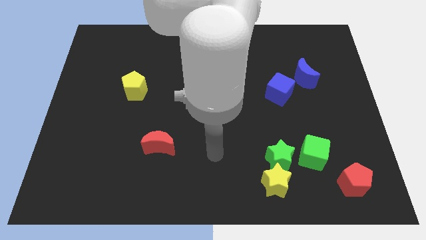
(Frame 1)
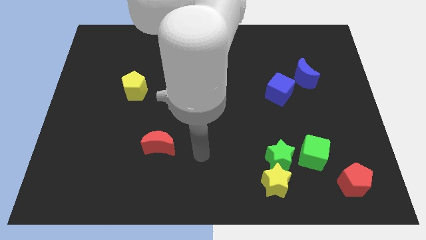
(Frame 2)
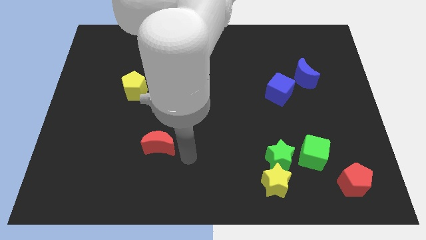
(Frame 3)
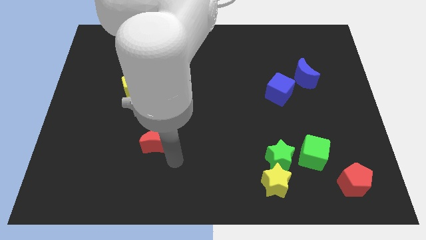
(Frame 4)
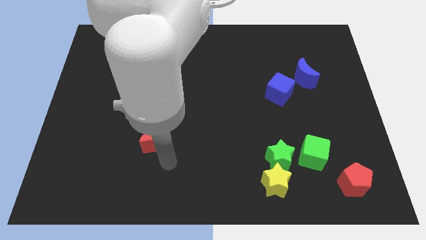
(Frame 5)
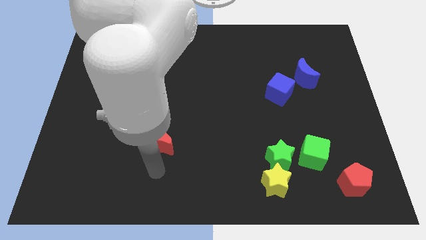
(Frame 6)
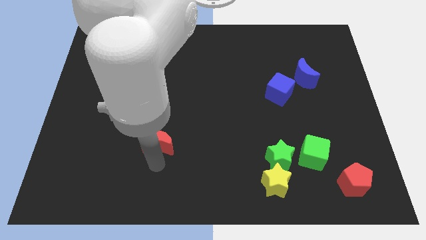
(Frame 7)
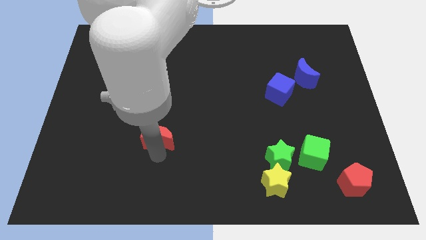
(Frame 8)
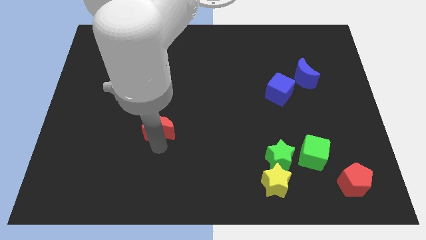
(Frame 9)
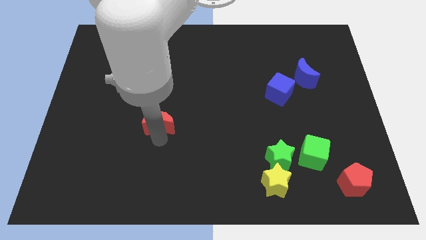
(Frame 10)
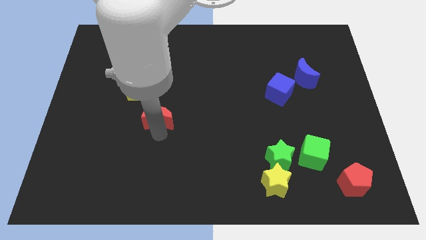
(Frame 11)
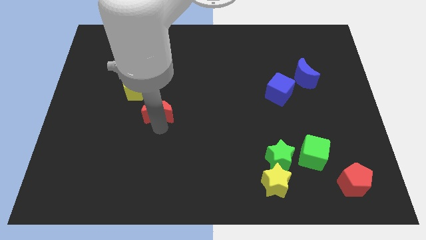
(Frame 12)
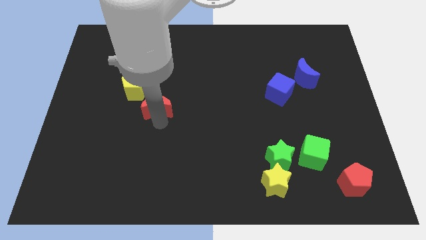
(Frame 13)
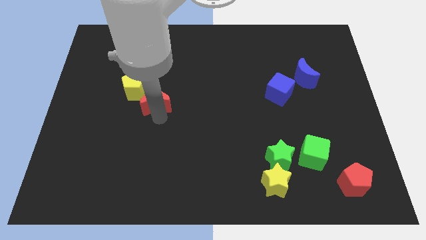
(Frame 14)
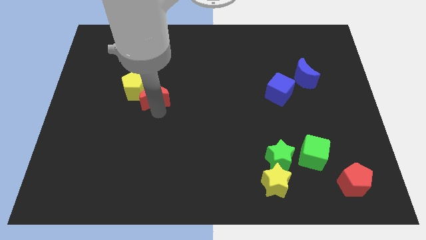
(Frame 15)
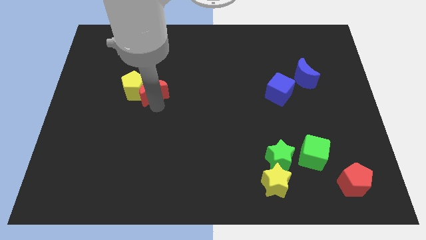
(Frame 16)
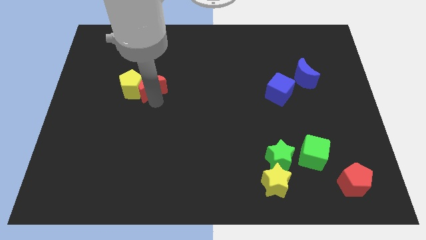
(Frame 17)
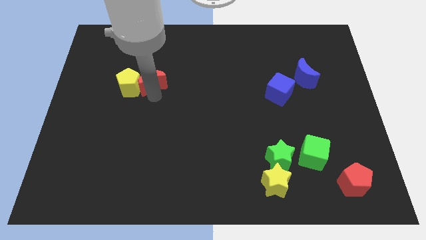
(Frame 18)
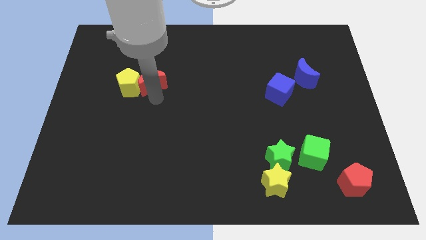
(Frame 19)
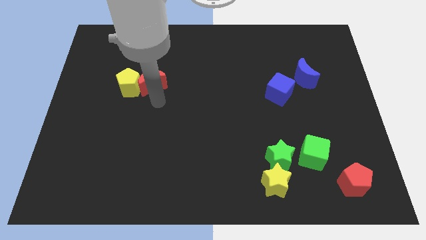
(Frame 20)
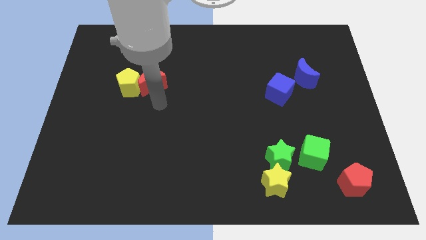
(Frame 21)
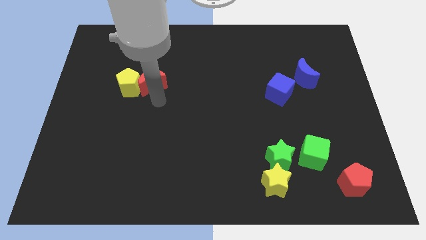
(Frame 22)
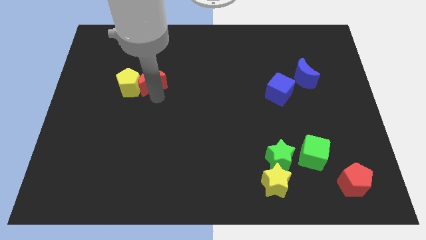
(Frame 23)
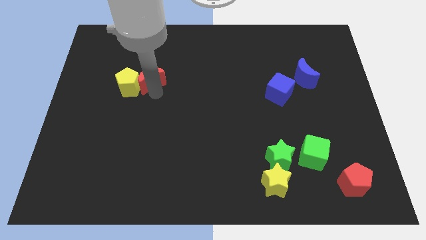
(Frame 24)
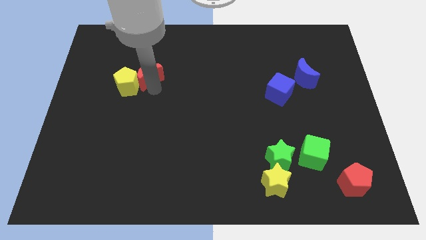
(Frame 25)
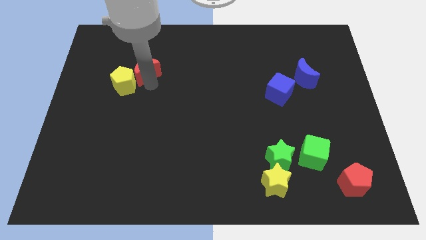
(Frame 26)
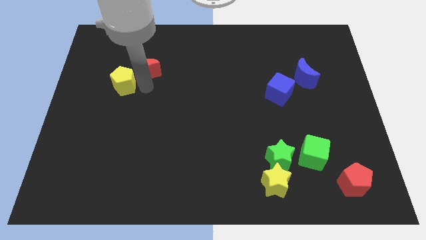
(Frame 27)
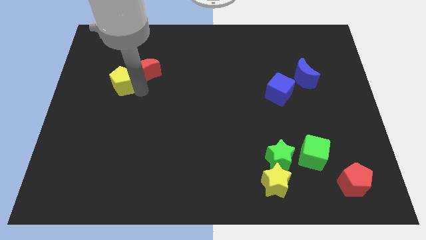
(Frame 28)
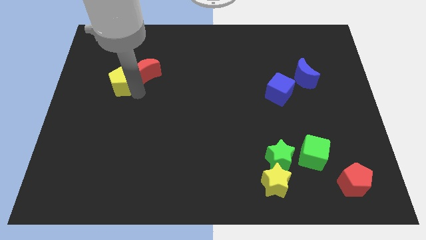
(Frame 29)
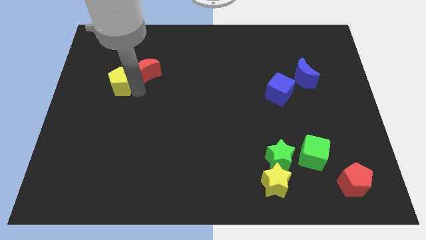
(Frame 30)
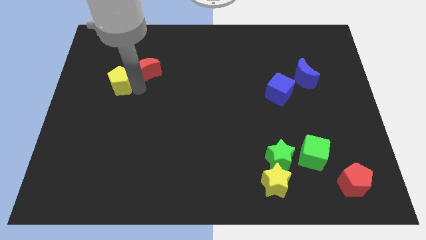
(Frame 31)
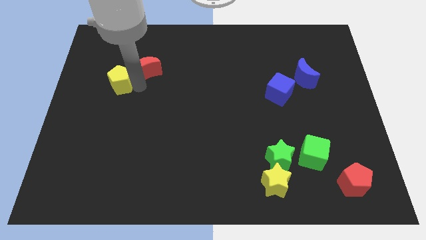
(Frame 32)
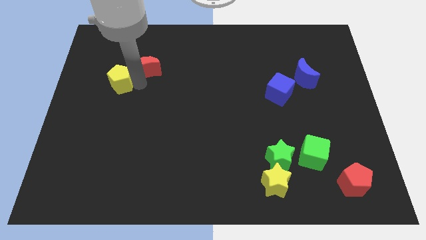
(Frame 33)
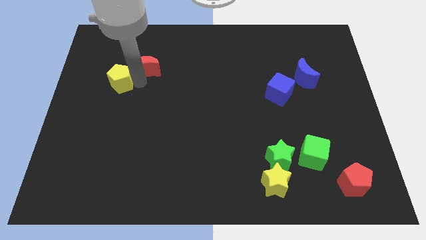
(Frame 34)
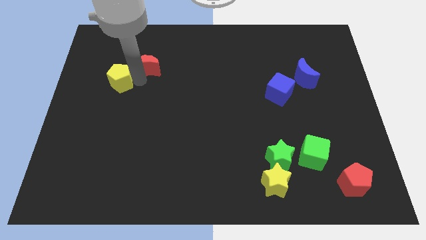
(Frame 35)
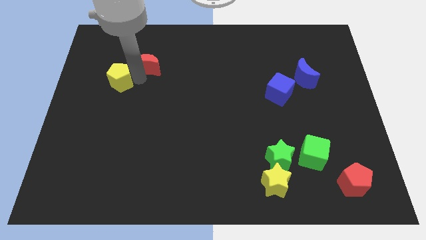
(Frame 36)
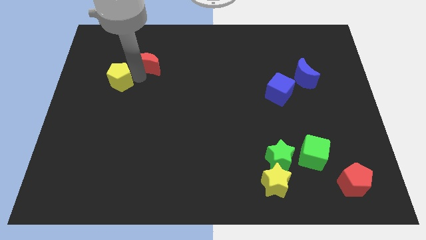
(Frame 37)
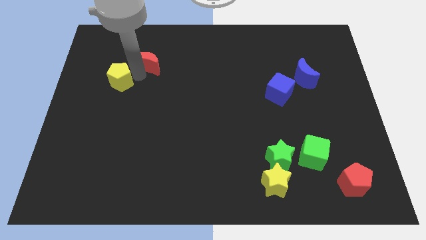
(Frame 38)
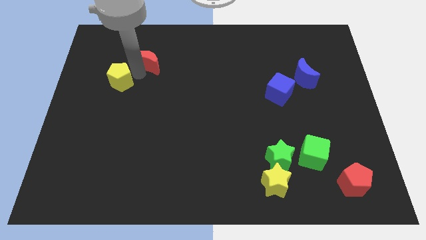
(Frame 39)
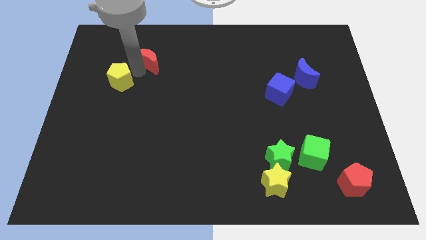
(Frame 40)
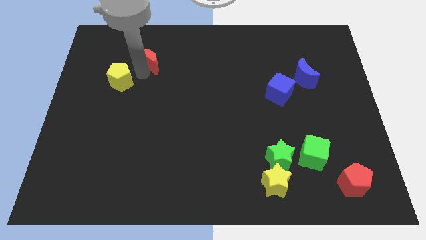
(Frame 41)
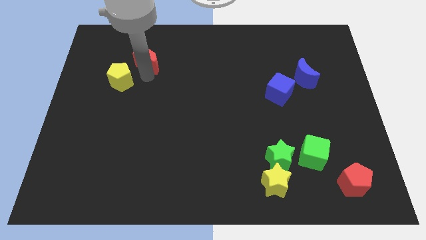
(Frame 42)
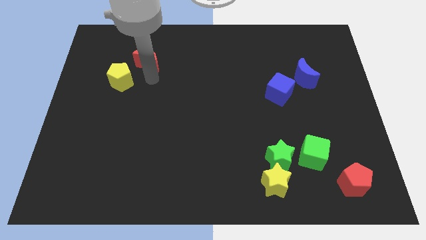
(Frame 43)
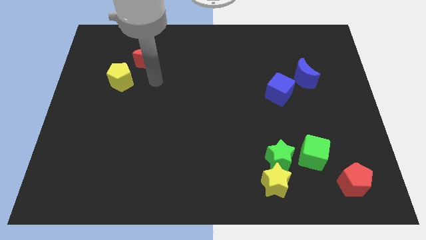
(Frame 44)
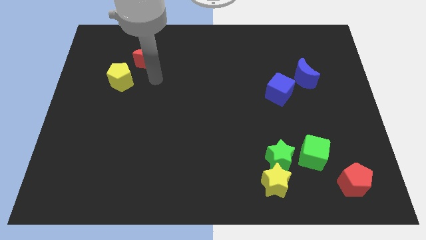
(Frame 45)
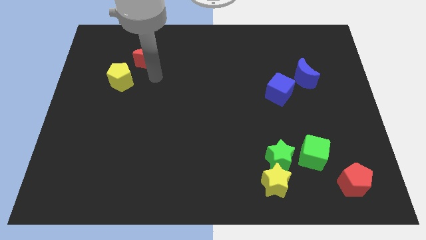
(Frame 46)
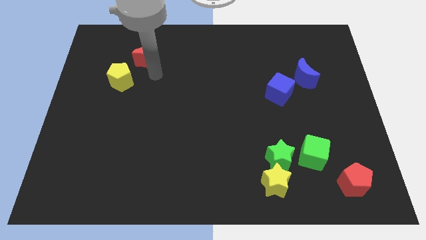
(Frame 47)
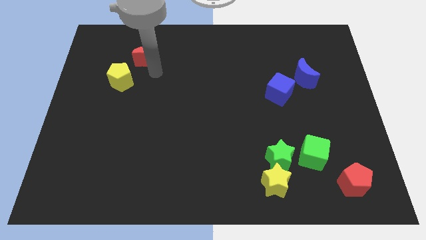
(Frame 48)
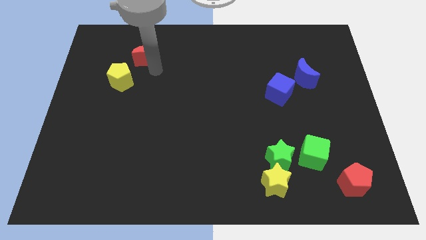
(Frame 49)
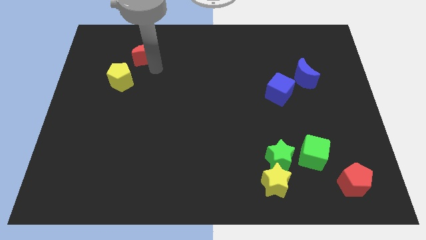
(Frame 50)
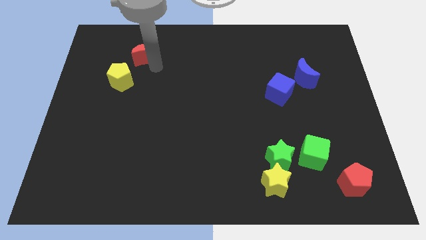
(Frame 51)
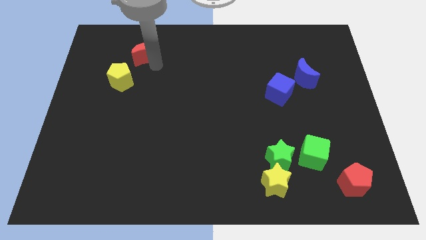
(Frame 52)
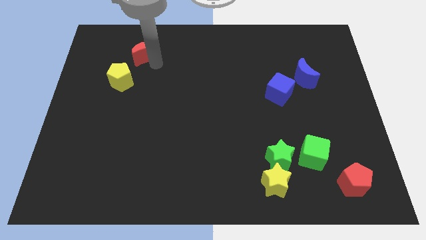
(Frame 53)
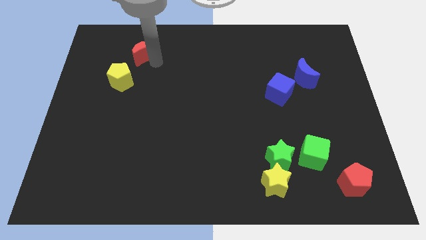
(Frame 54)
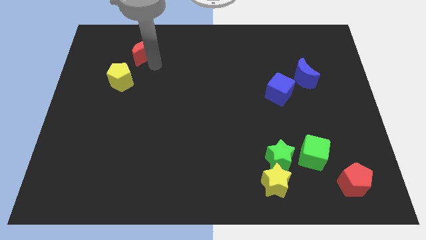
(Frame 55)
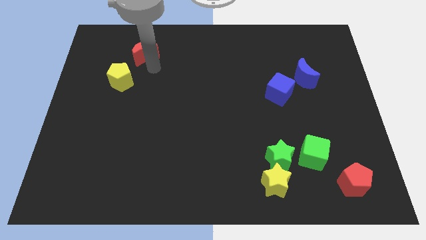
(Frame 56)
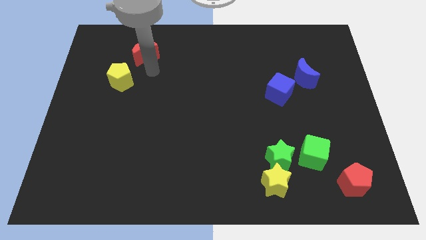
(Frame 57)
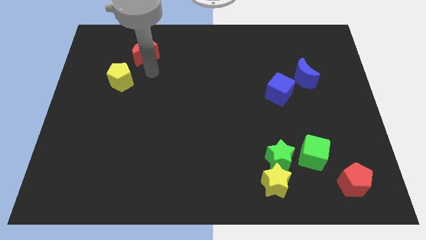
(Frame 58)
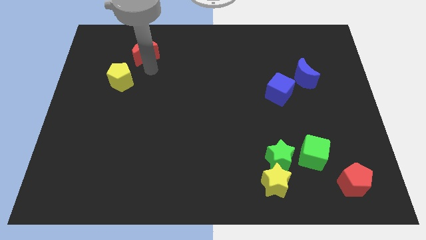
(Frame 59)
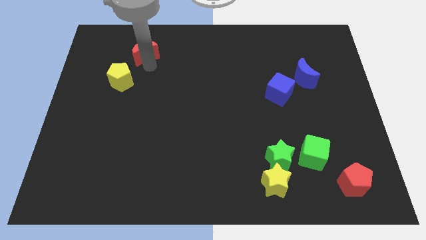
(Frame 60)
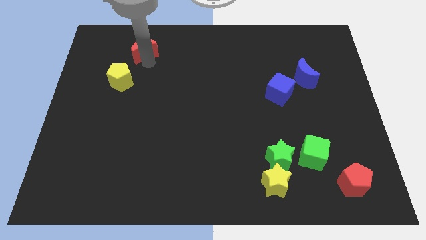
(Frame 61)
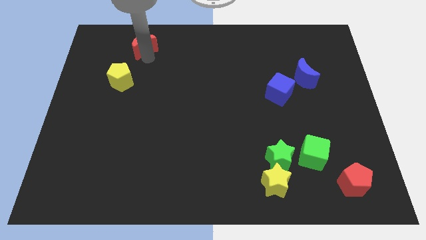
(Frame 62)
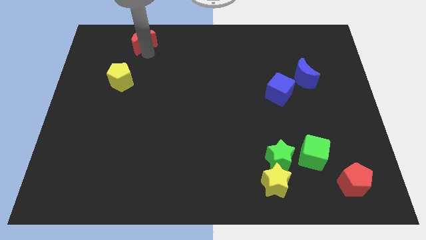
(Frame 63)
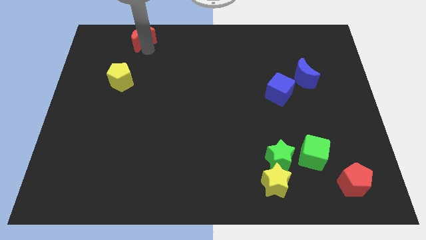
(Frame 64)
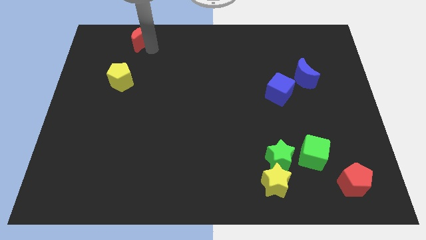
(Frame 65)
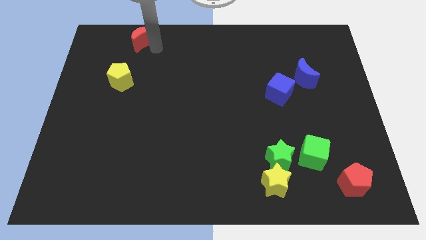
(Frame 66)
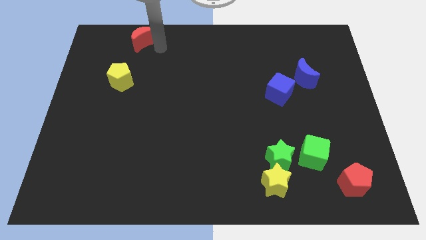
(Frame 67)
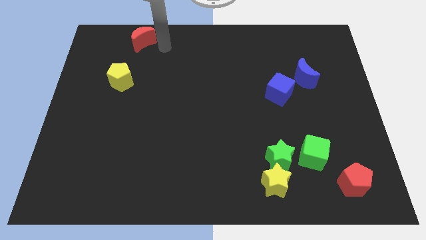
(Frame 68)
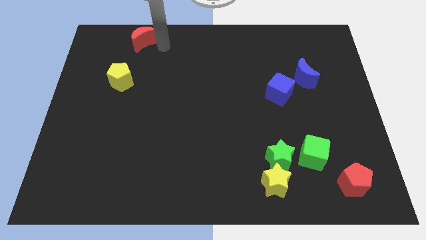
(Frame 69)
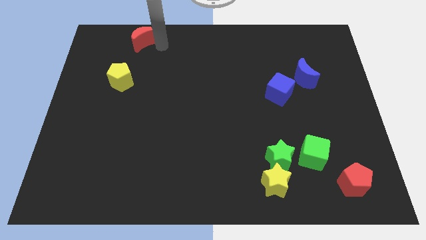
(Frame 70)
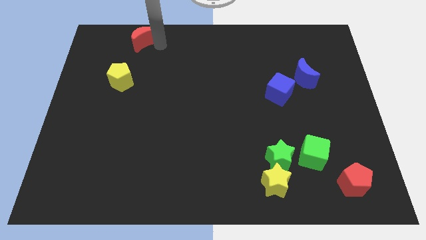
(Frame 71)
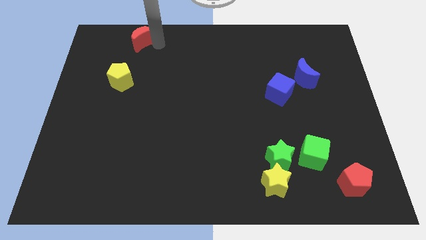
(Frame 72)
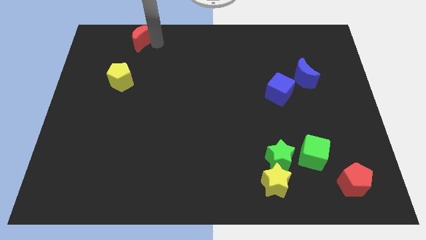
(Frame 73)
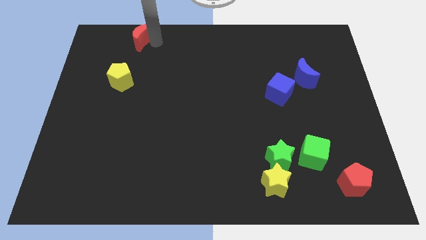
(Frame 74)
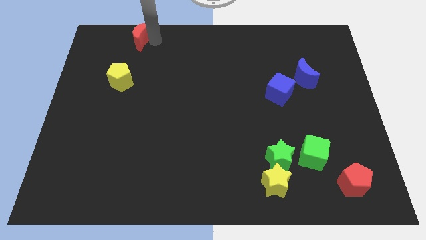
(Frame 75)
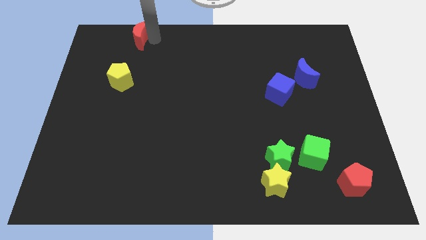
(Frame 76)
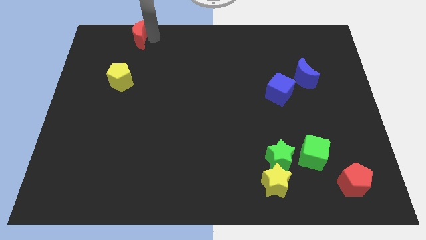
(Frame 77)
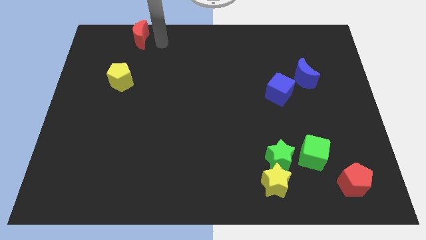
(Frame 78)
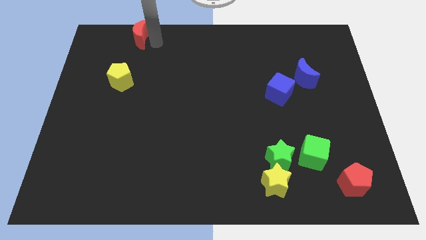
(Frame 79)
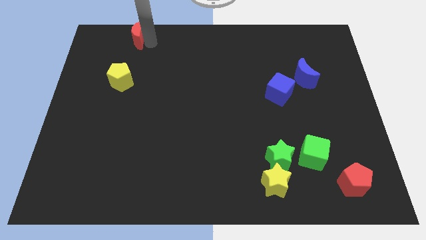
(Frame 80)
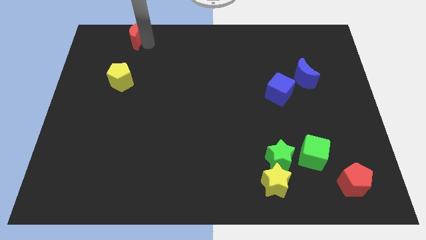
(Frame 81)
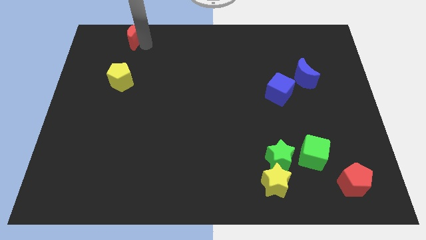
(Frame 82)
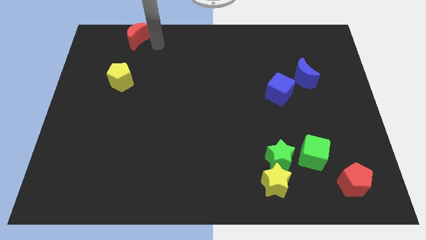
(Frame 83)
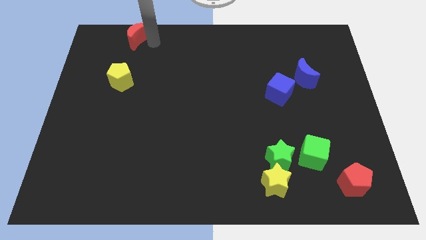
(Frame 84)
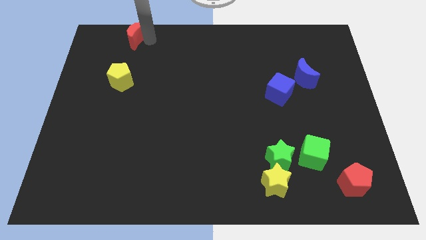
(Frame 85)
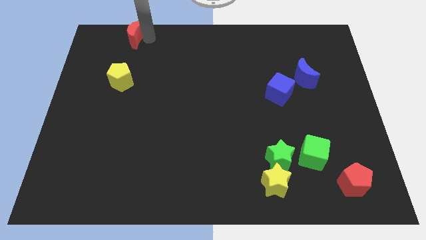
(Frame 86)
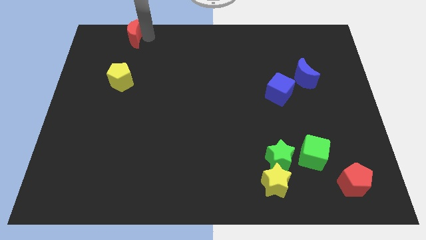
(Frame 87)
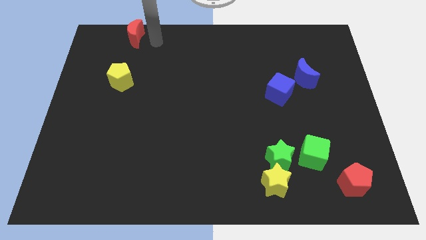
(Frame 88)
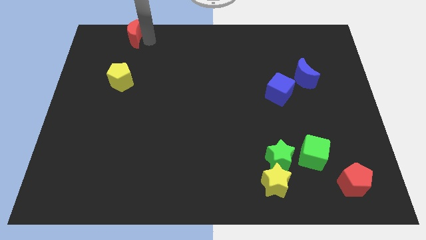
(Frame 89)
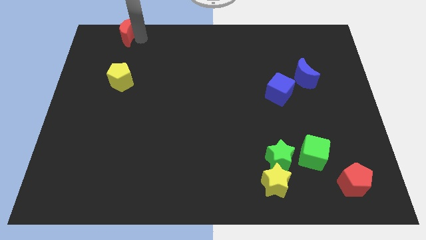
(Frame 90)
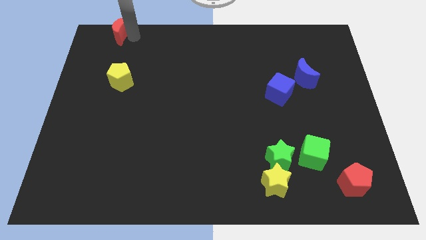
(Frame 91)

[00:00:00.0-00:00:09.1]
put the red moon to the top left
